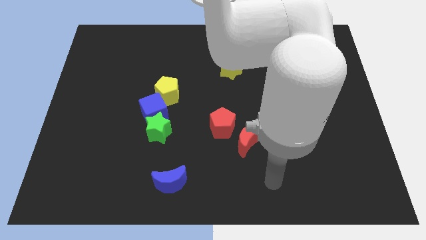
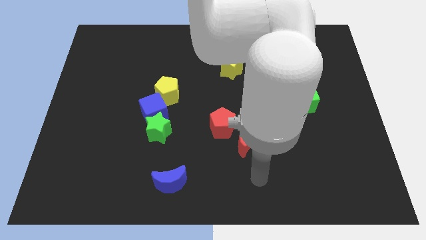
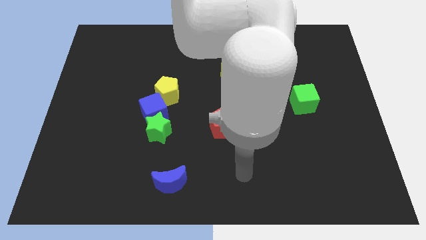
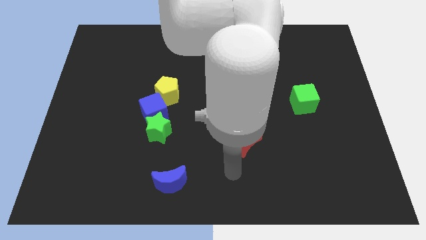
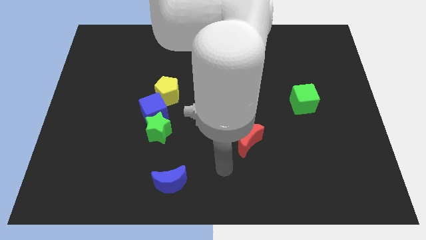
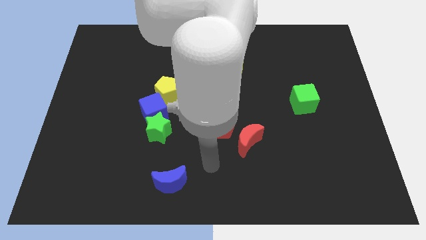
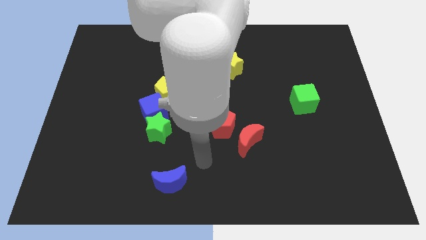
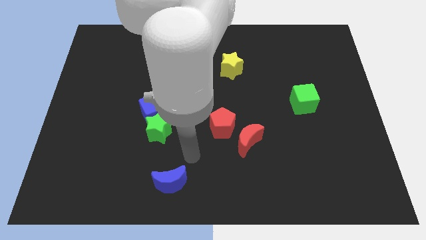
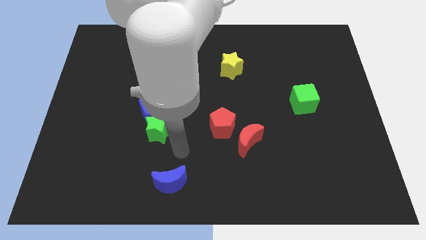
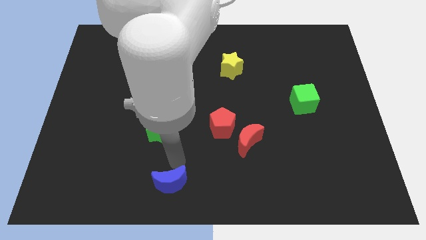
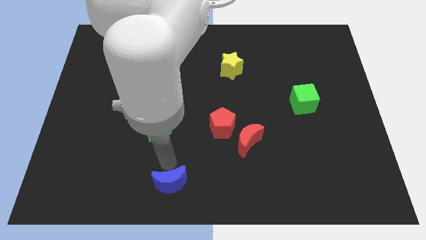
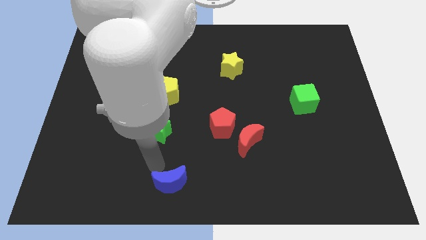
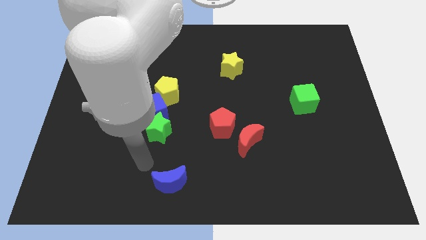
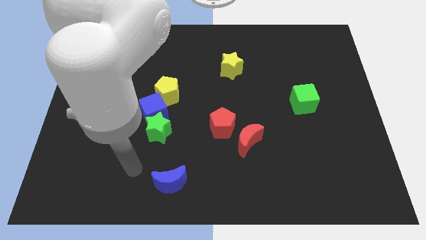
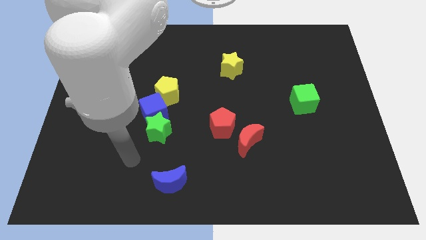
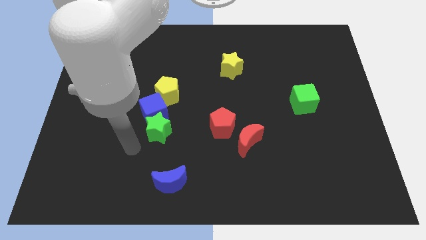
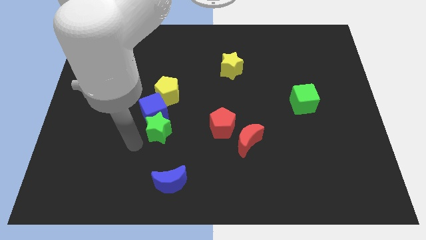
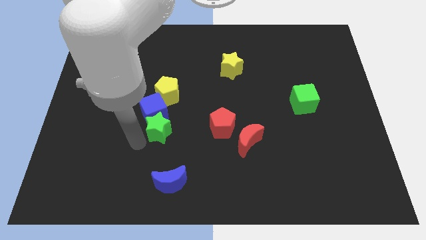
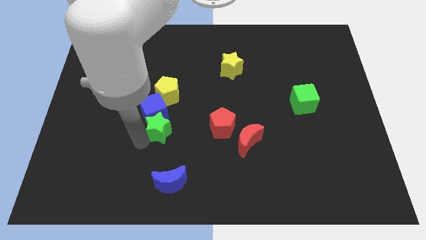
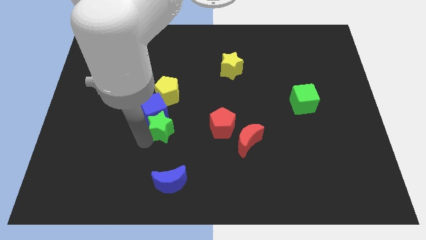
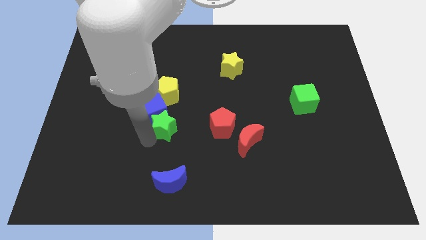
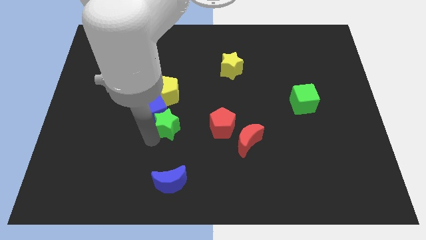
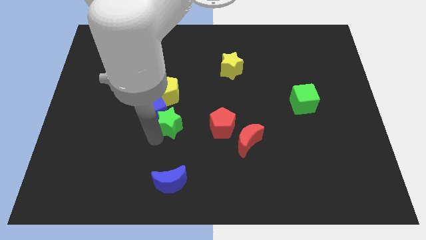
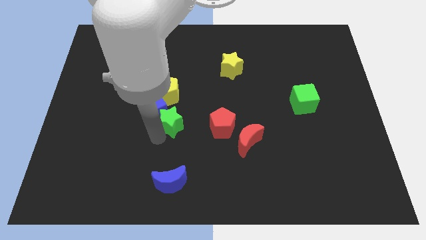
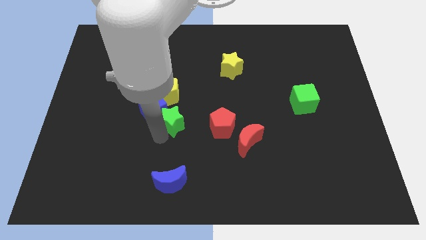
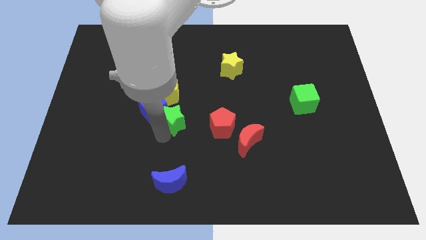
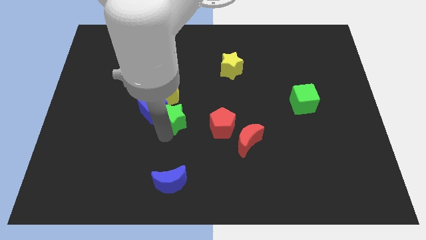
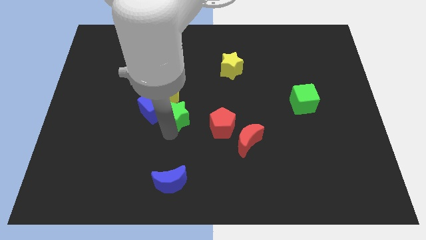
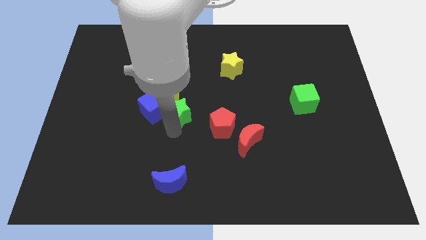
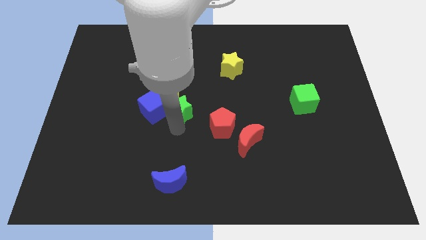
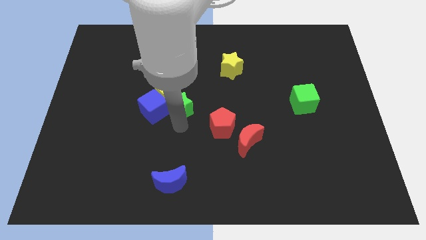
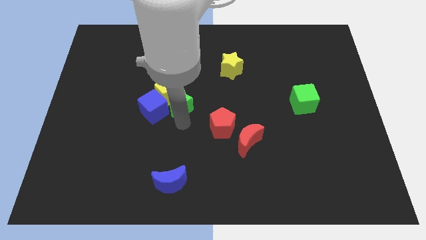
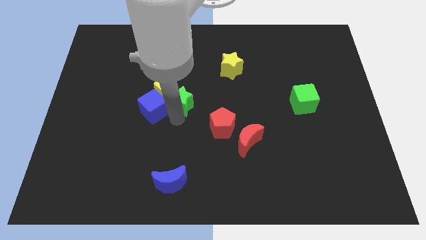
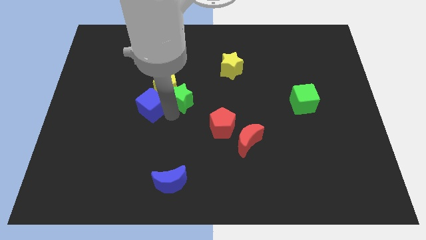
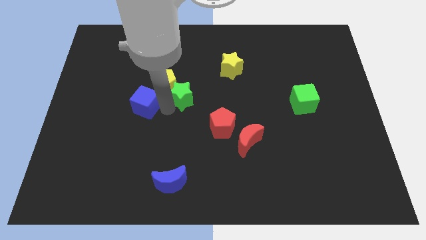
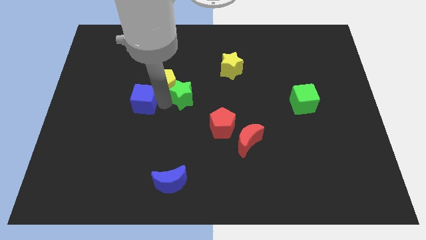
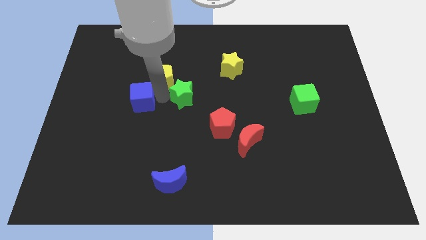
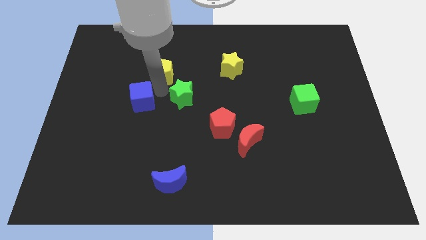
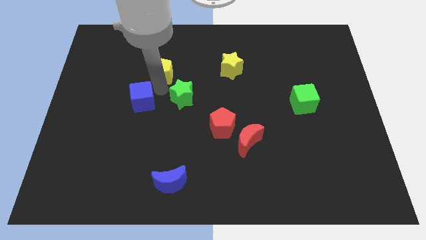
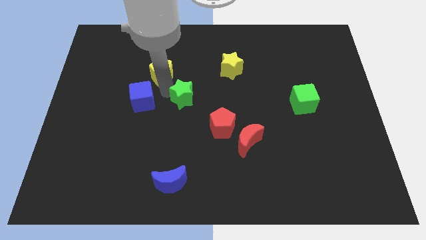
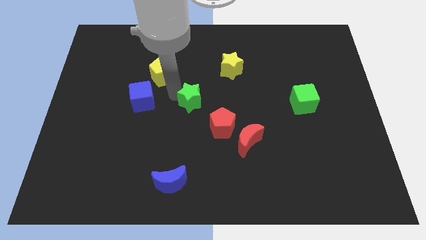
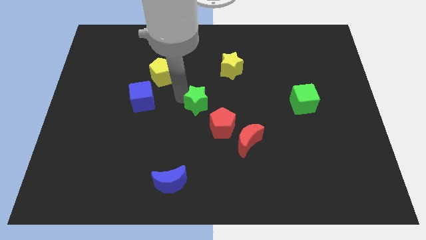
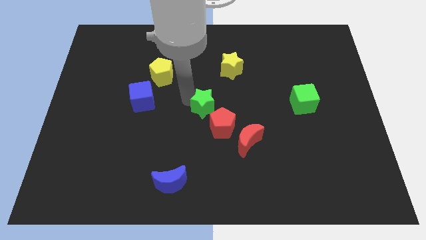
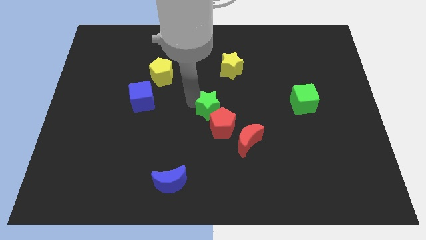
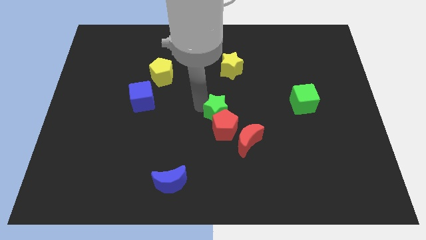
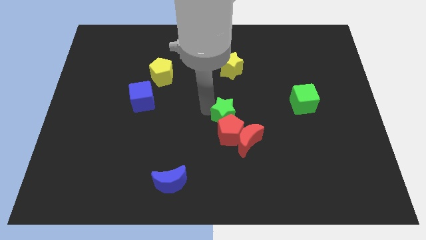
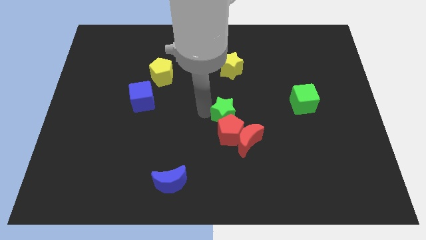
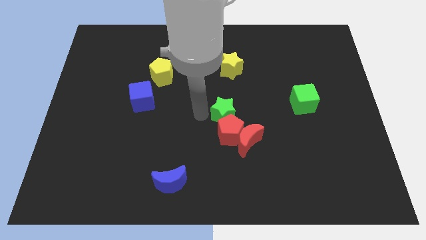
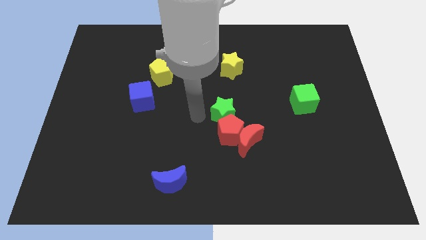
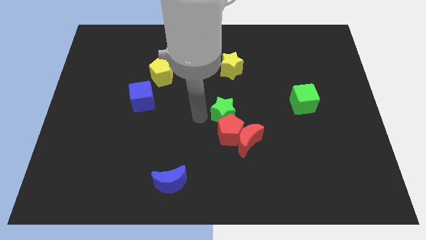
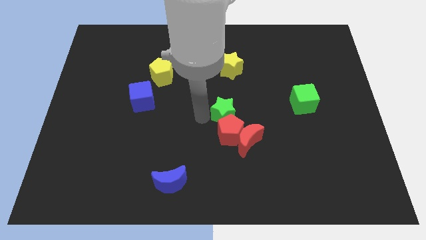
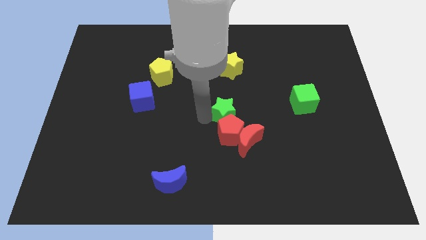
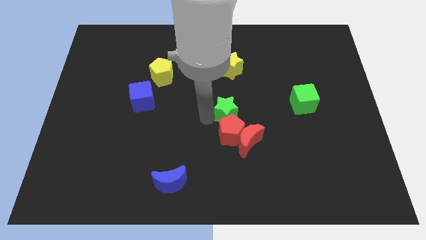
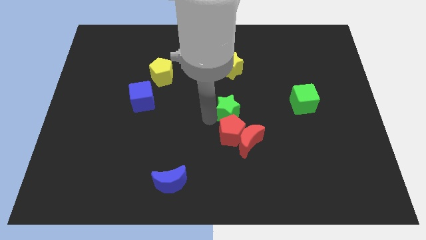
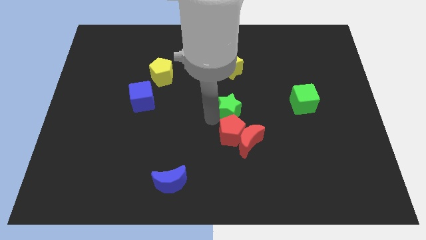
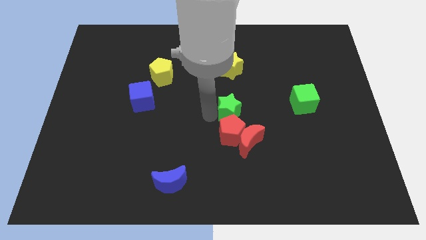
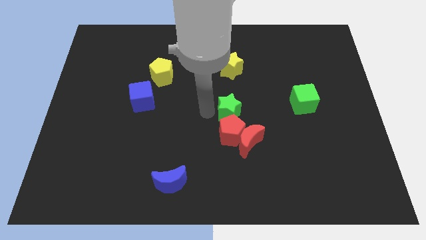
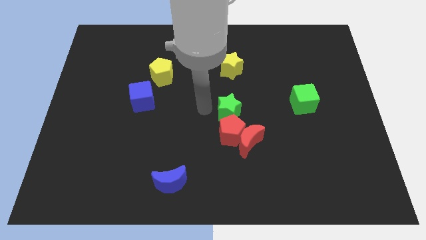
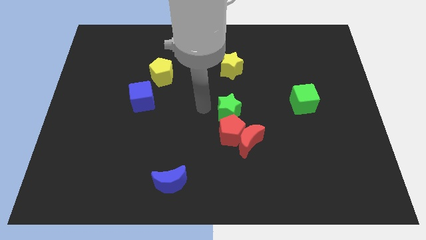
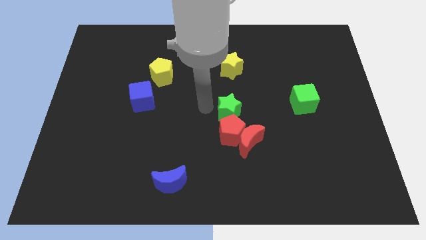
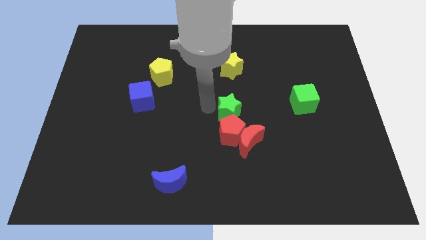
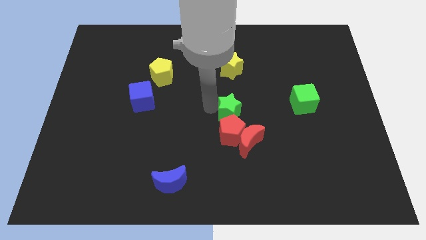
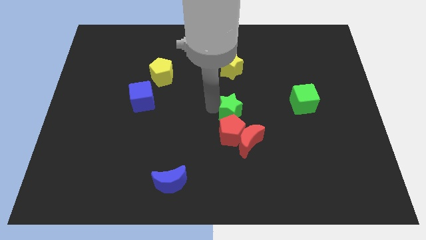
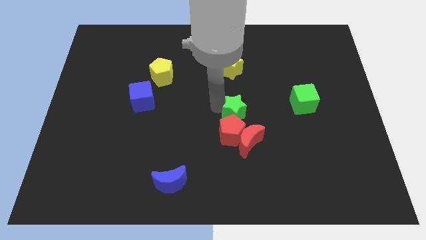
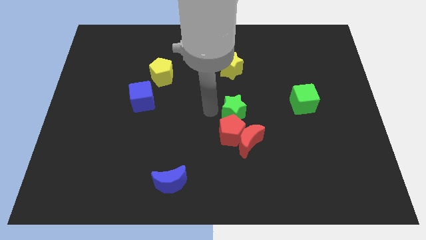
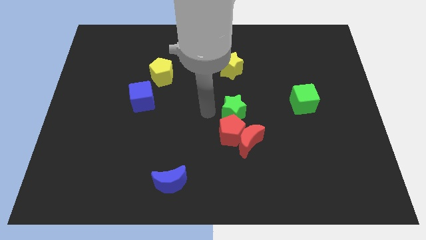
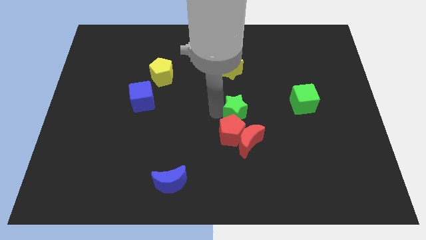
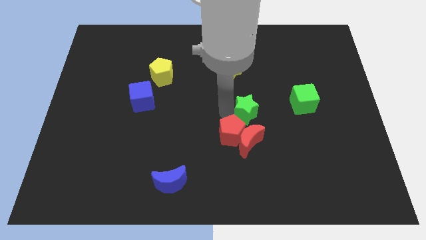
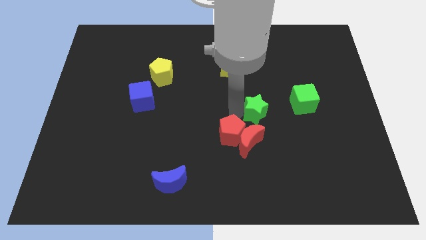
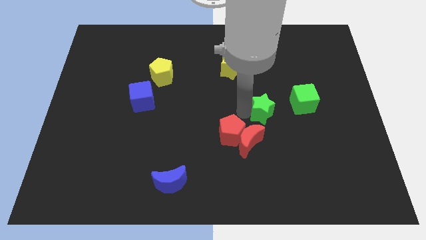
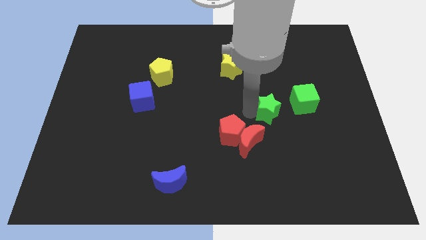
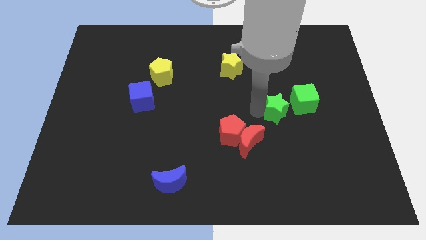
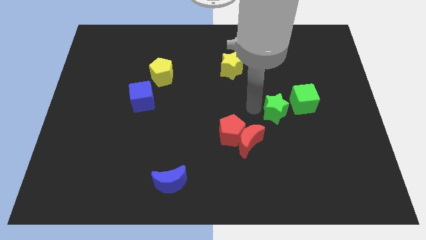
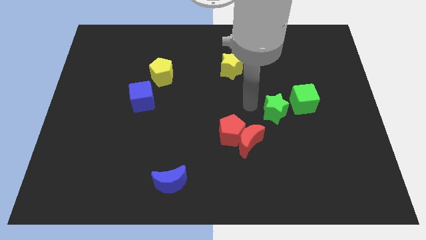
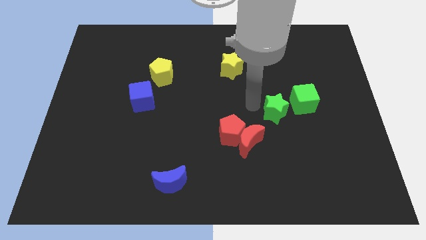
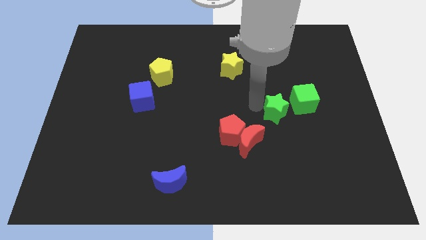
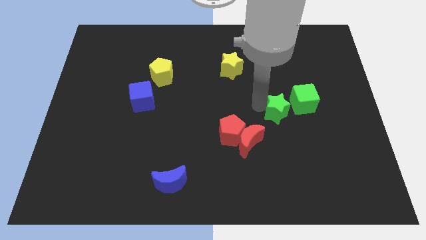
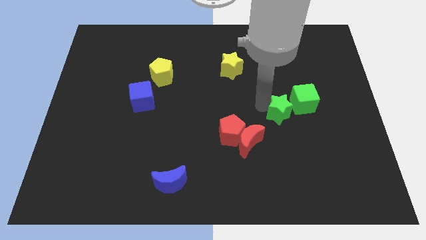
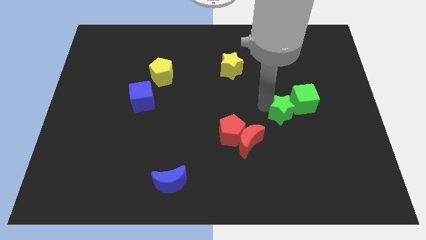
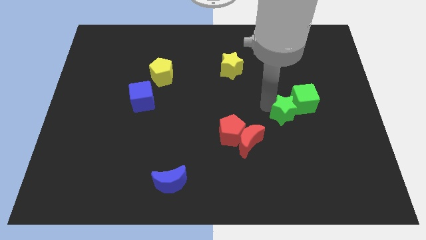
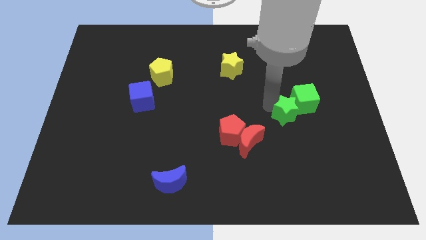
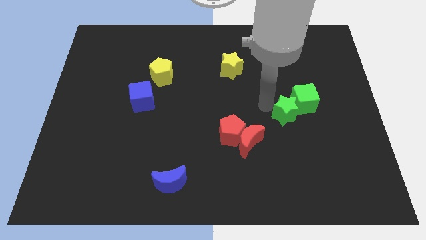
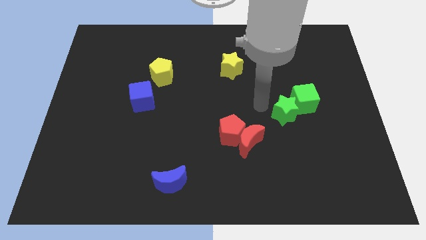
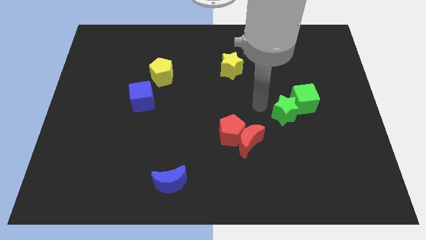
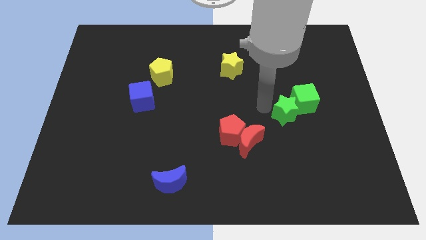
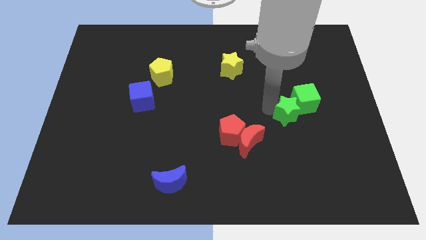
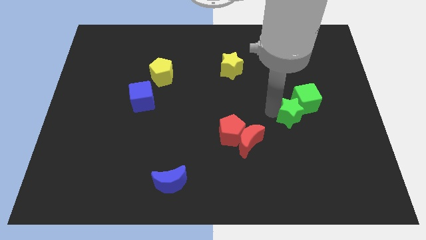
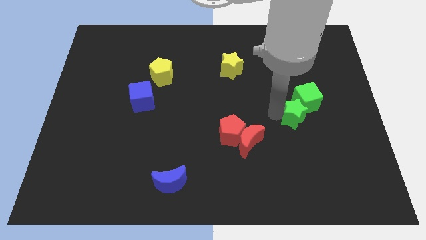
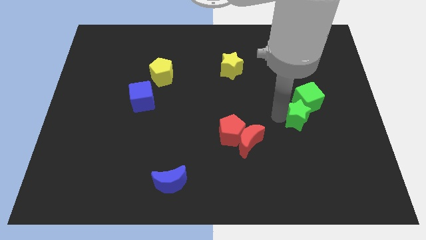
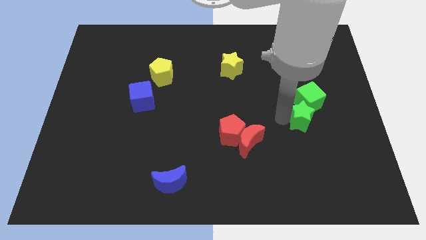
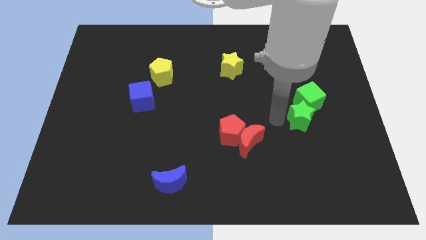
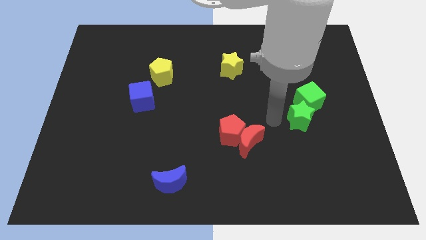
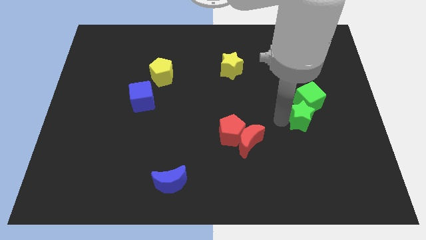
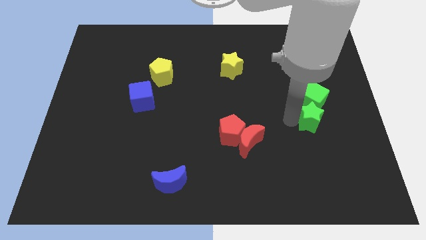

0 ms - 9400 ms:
slide the green star to the bottom right of the green cube
